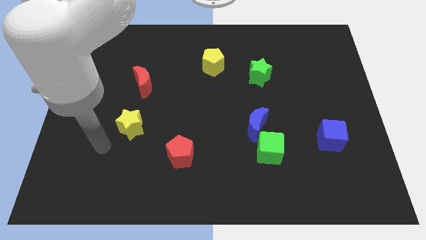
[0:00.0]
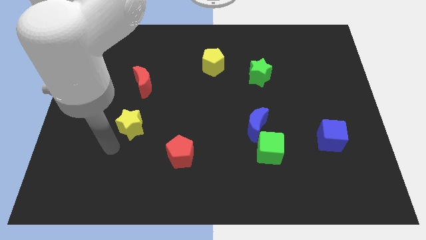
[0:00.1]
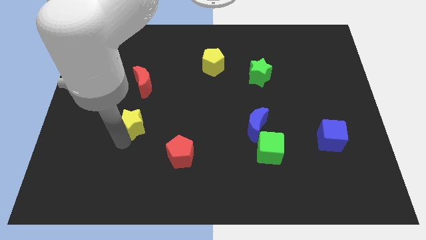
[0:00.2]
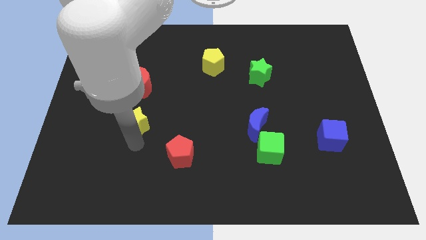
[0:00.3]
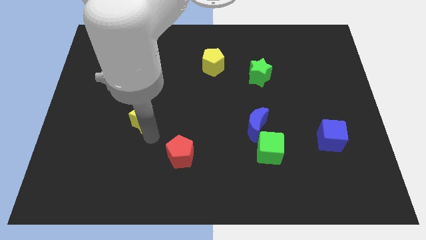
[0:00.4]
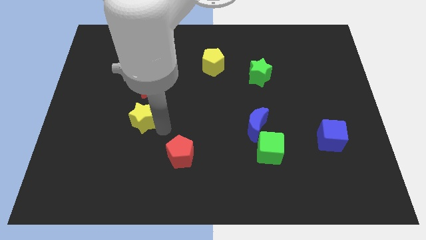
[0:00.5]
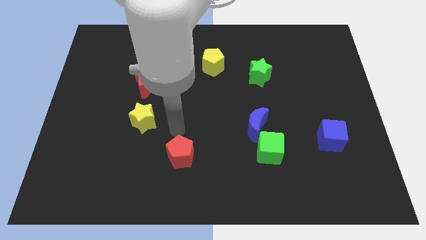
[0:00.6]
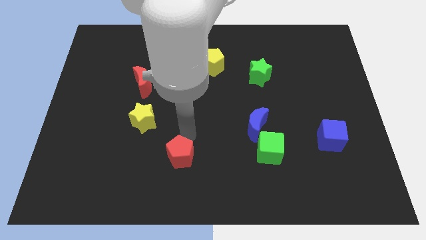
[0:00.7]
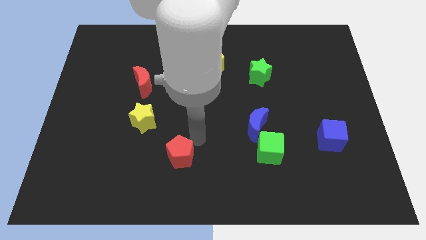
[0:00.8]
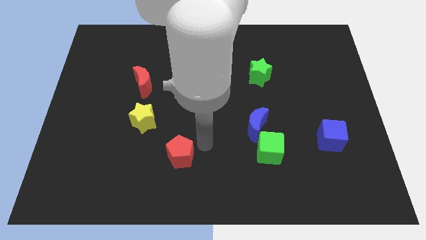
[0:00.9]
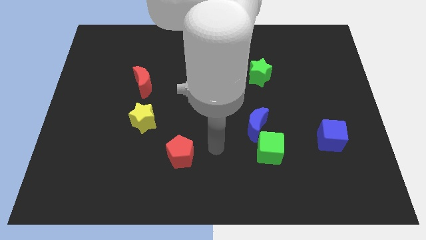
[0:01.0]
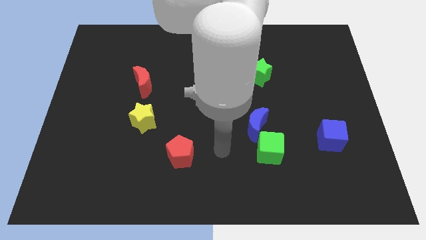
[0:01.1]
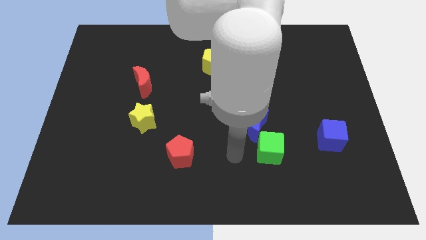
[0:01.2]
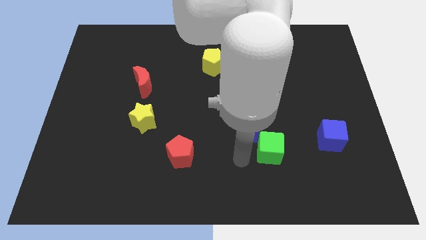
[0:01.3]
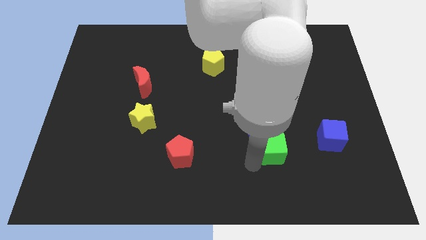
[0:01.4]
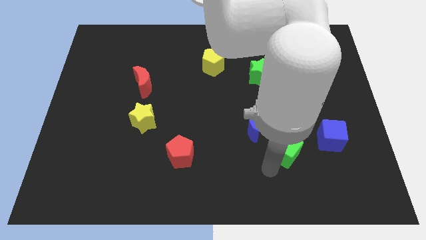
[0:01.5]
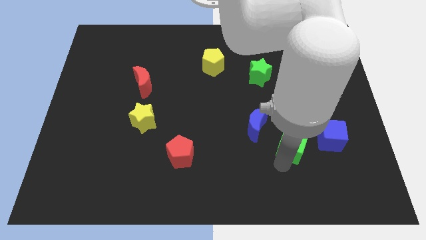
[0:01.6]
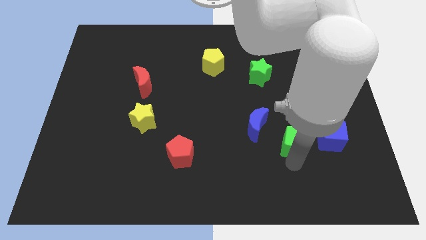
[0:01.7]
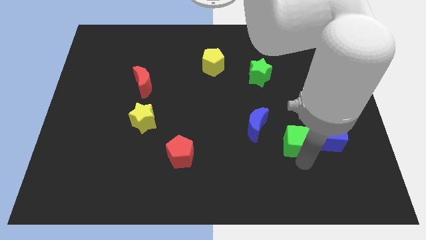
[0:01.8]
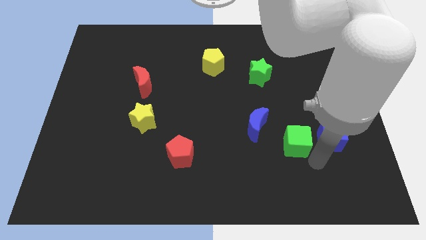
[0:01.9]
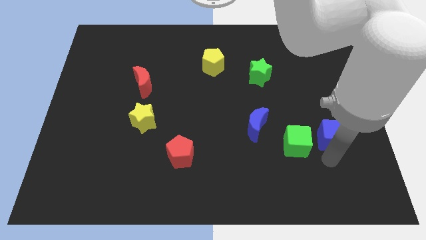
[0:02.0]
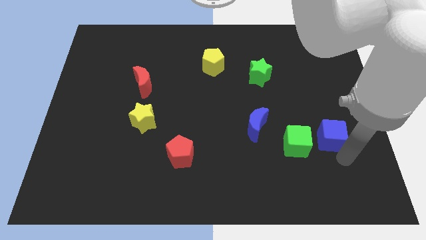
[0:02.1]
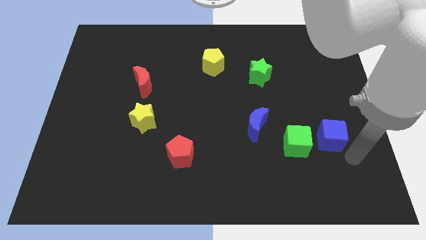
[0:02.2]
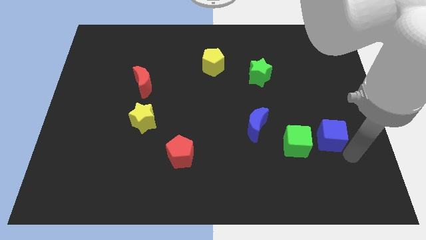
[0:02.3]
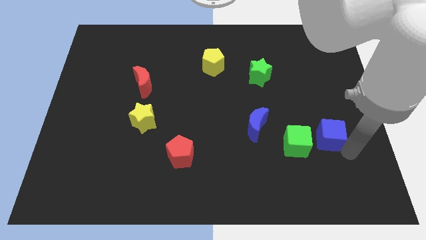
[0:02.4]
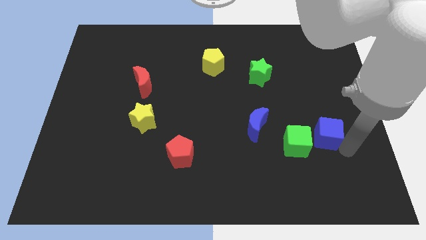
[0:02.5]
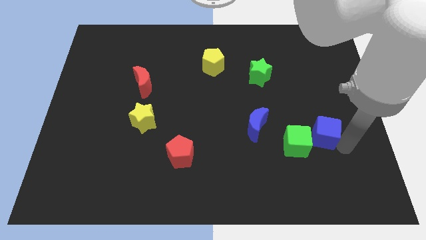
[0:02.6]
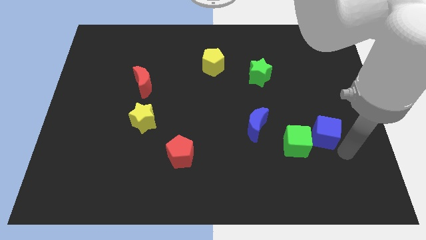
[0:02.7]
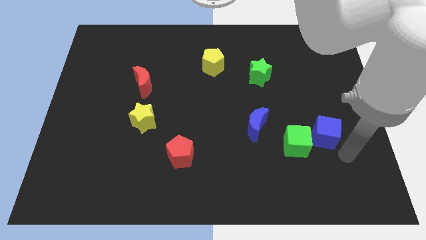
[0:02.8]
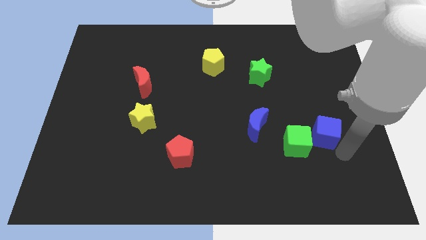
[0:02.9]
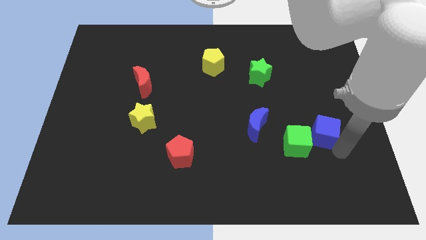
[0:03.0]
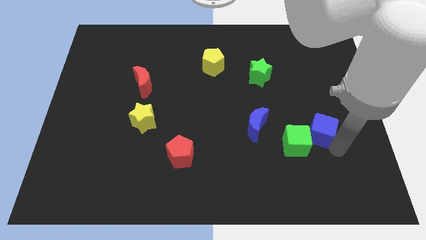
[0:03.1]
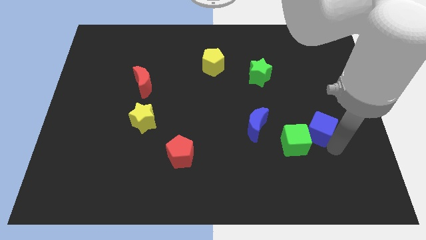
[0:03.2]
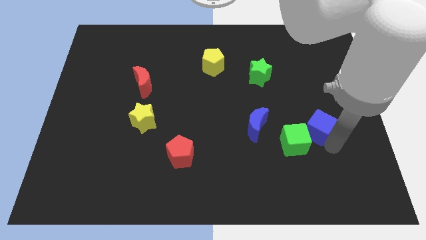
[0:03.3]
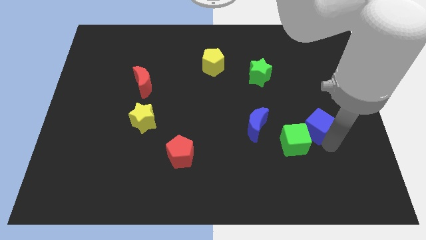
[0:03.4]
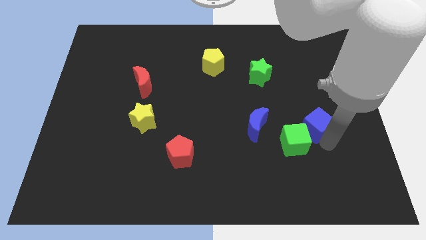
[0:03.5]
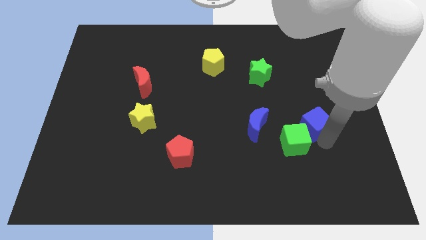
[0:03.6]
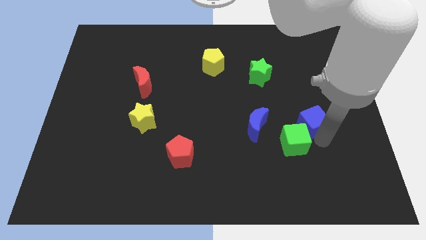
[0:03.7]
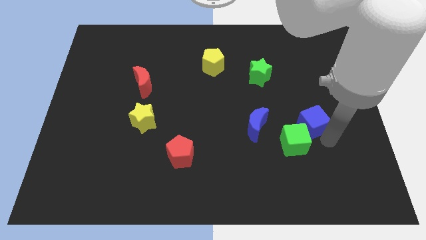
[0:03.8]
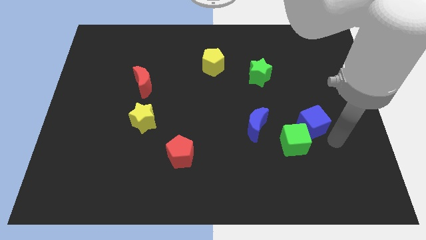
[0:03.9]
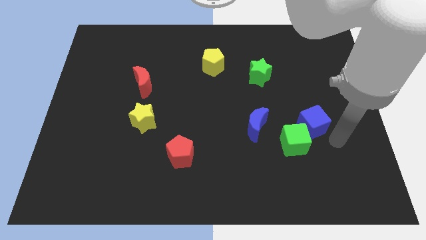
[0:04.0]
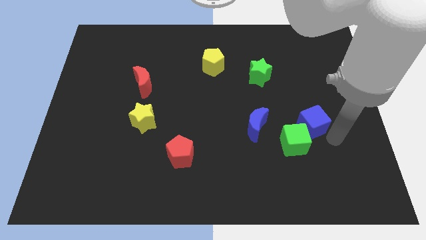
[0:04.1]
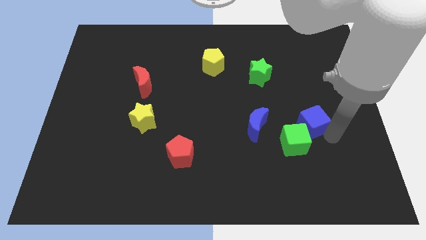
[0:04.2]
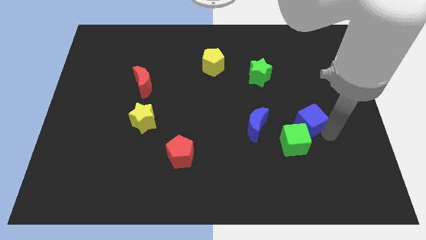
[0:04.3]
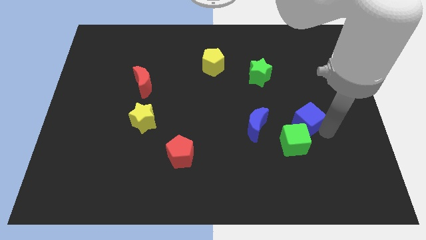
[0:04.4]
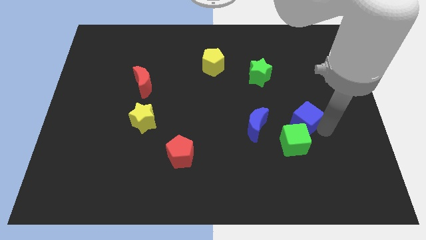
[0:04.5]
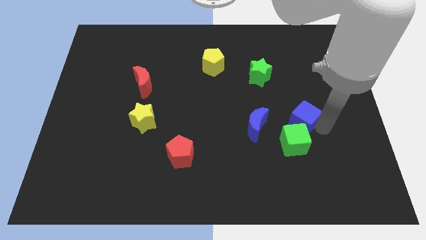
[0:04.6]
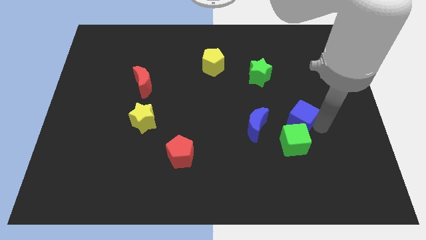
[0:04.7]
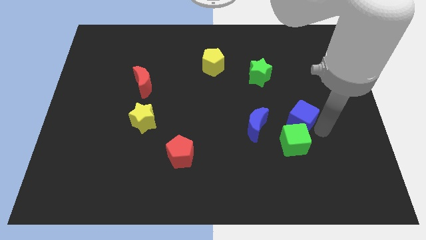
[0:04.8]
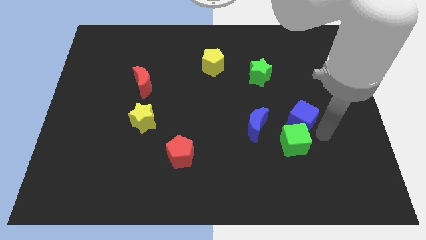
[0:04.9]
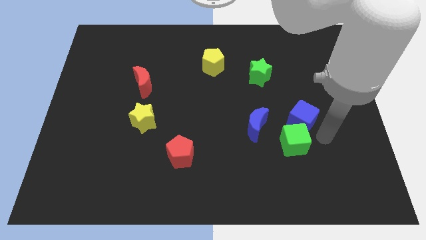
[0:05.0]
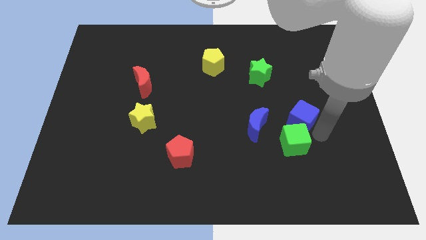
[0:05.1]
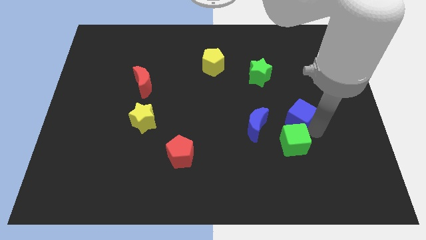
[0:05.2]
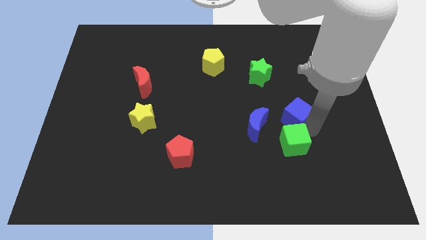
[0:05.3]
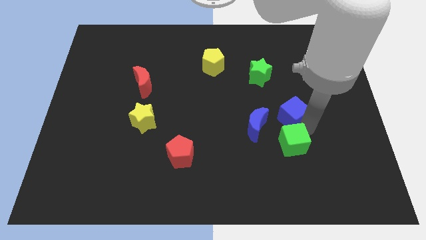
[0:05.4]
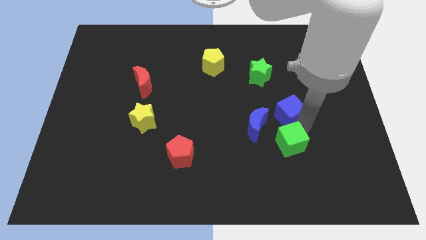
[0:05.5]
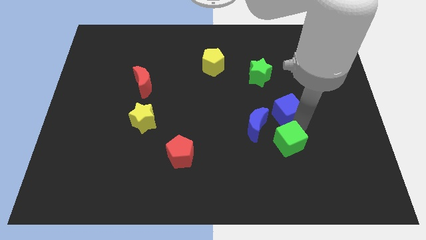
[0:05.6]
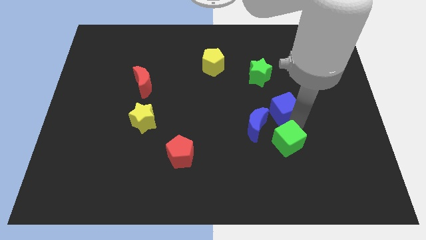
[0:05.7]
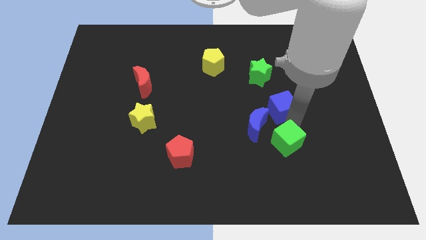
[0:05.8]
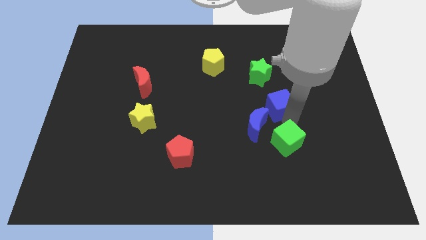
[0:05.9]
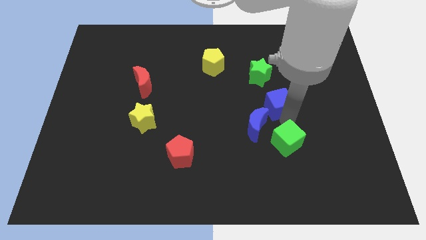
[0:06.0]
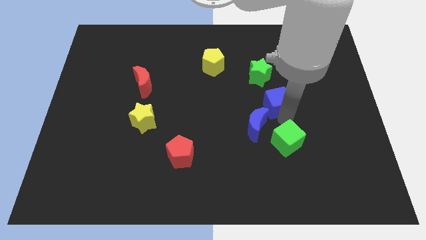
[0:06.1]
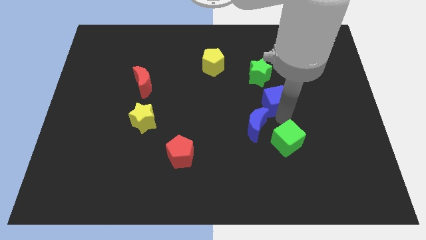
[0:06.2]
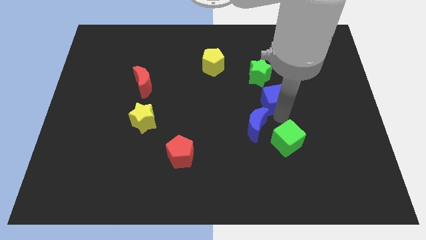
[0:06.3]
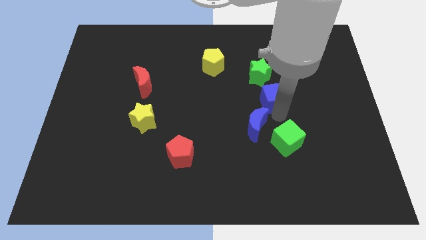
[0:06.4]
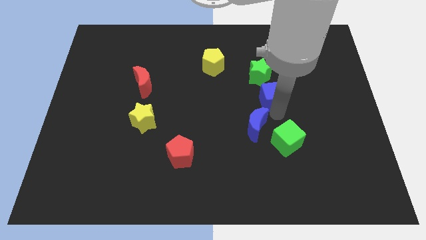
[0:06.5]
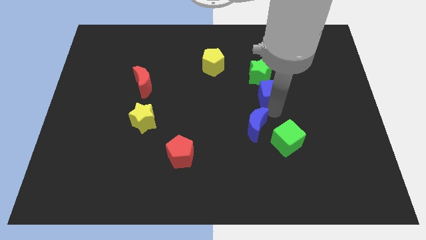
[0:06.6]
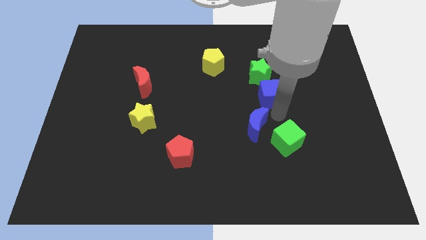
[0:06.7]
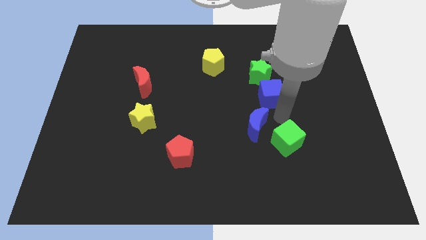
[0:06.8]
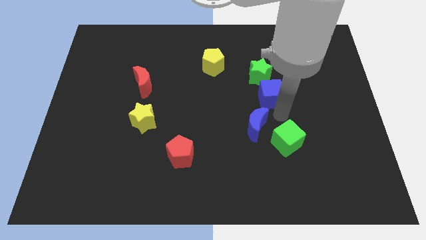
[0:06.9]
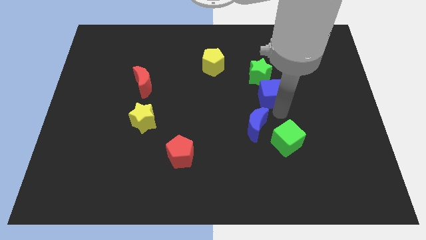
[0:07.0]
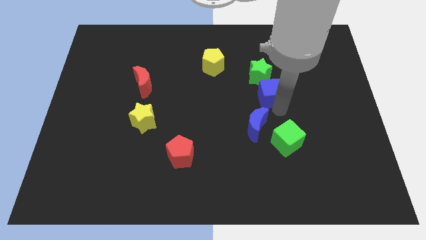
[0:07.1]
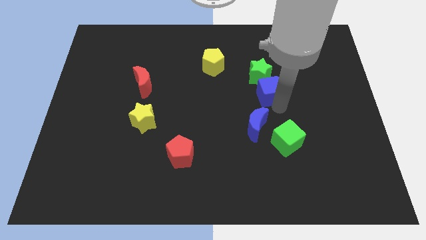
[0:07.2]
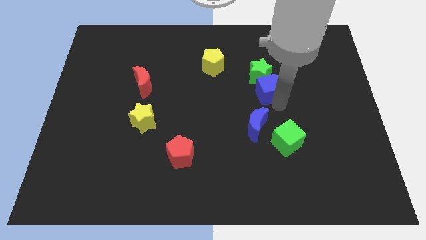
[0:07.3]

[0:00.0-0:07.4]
slide the blue cube close to the green star

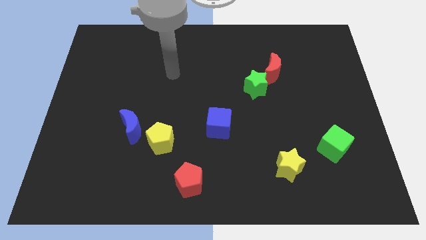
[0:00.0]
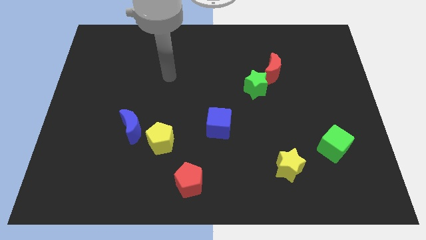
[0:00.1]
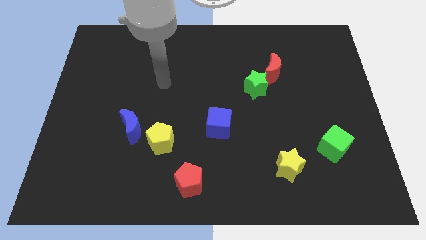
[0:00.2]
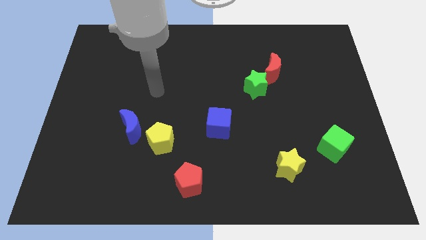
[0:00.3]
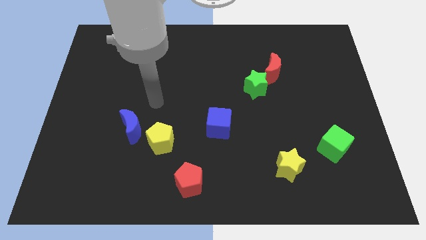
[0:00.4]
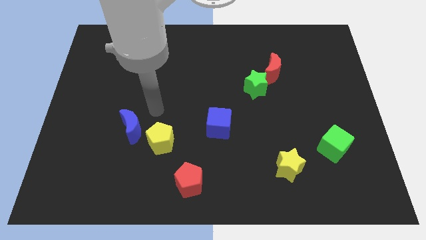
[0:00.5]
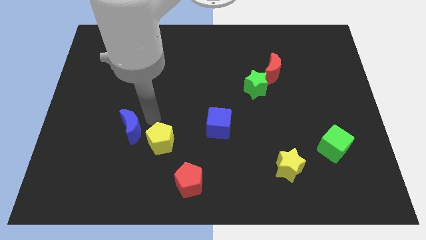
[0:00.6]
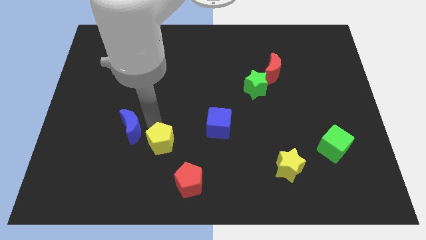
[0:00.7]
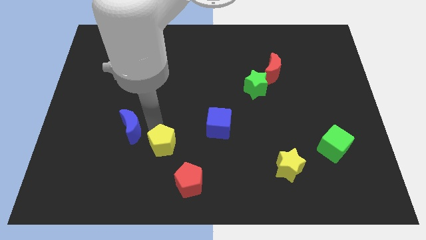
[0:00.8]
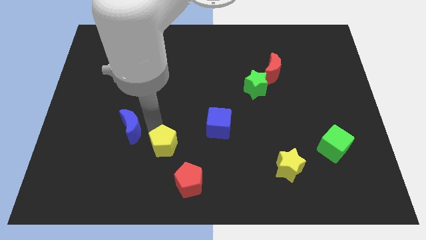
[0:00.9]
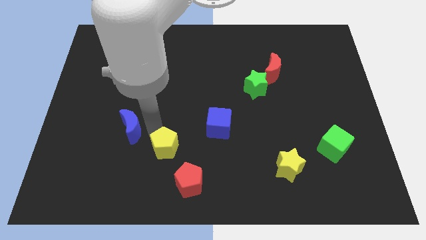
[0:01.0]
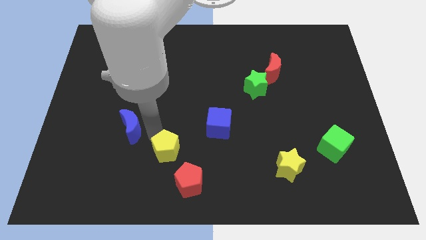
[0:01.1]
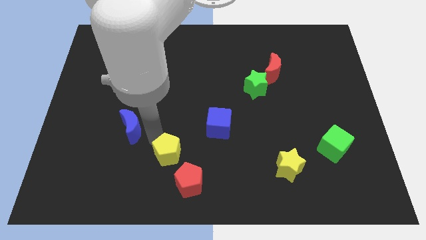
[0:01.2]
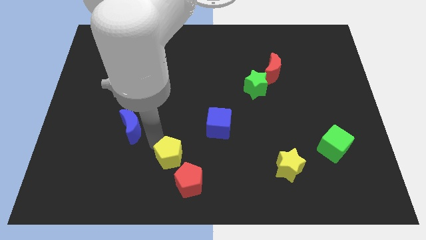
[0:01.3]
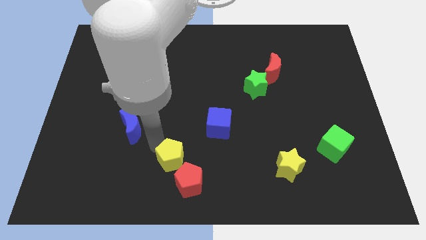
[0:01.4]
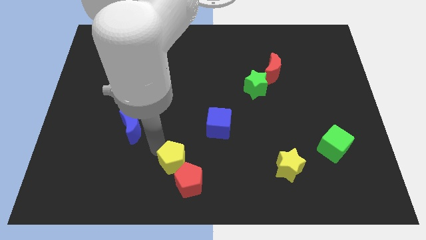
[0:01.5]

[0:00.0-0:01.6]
slide the yellow pentagon towards the red pentagon
